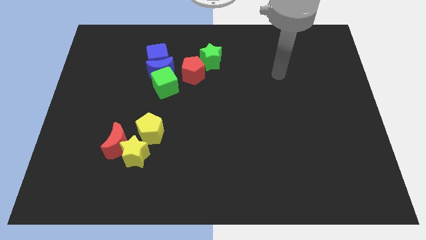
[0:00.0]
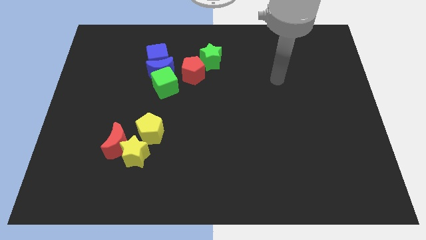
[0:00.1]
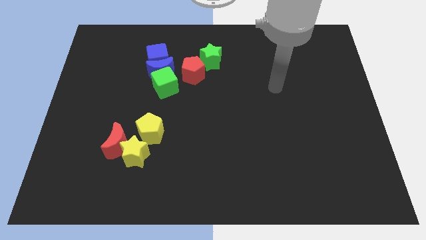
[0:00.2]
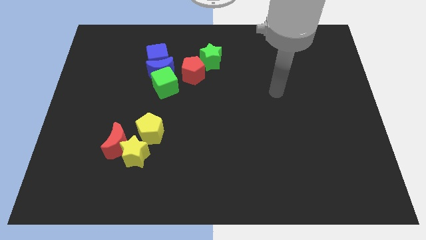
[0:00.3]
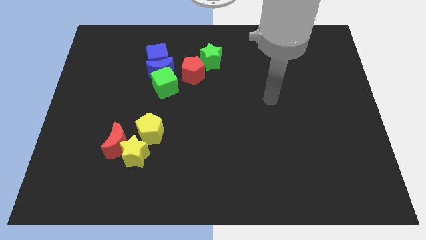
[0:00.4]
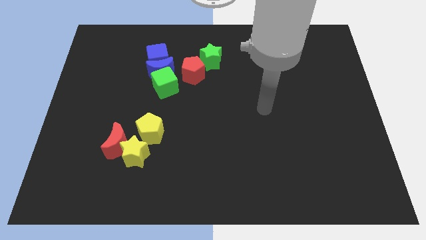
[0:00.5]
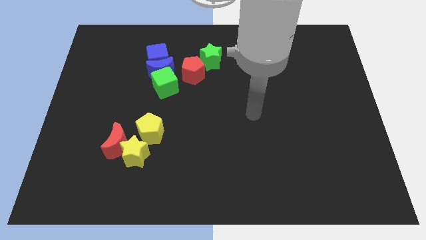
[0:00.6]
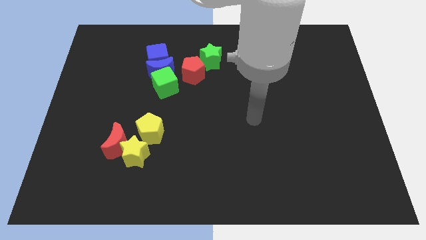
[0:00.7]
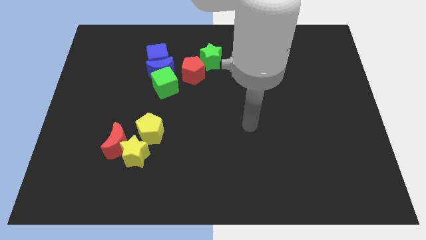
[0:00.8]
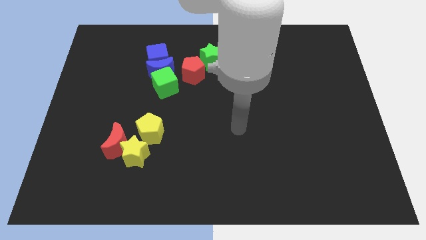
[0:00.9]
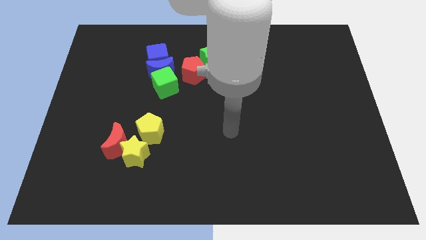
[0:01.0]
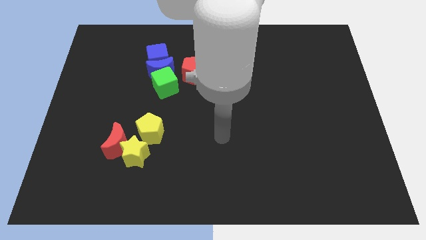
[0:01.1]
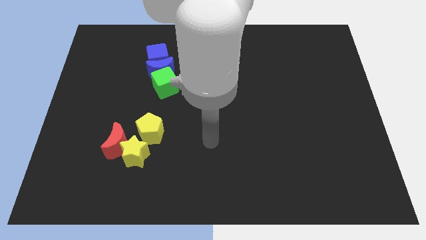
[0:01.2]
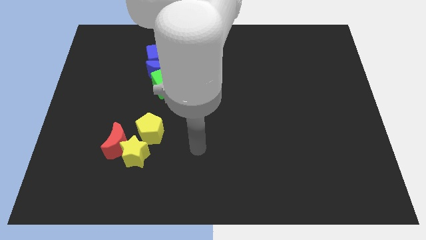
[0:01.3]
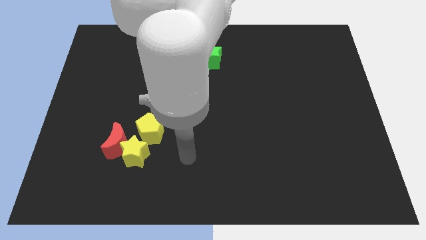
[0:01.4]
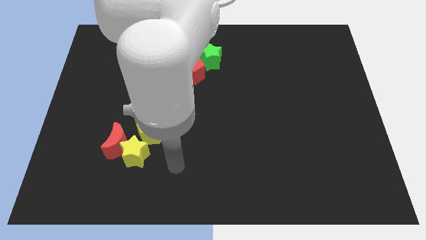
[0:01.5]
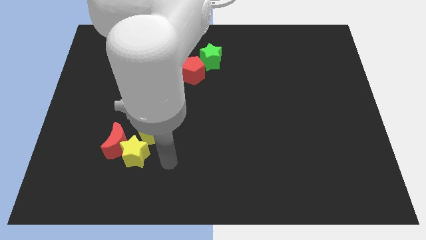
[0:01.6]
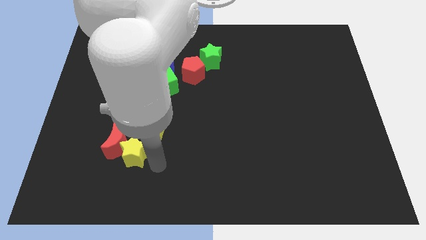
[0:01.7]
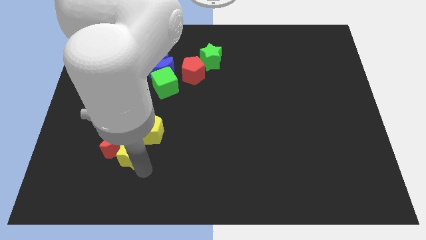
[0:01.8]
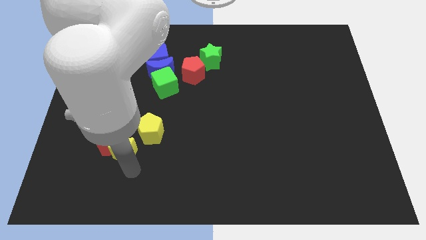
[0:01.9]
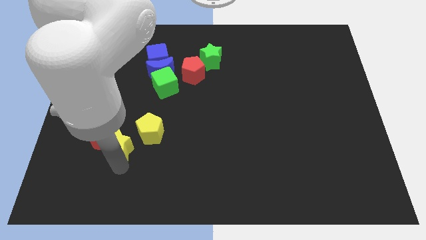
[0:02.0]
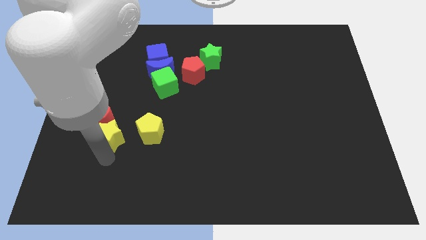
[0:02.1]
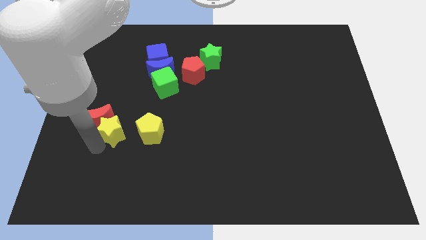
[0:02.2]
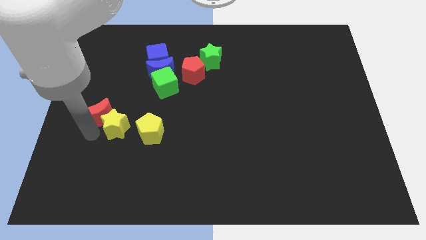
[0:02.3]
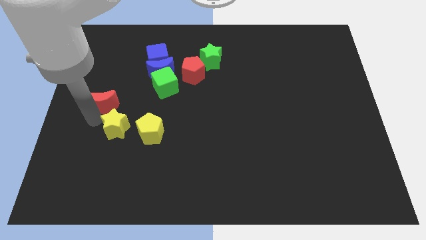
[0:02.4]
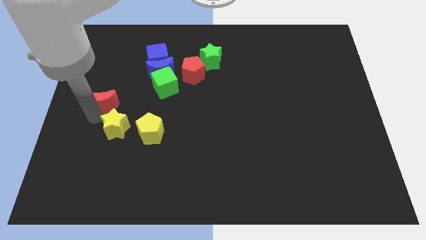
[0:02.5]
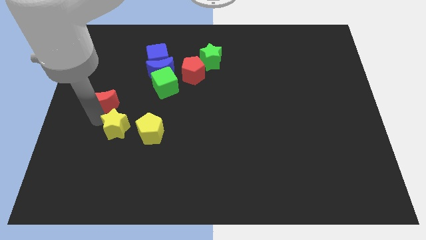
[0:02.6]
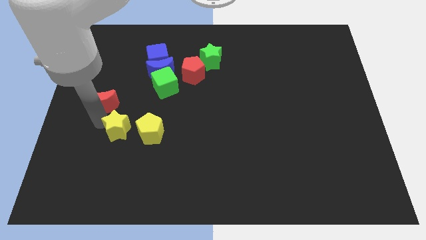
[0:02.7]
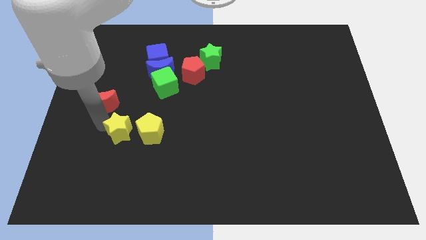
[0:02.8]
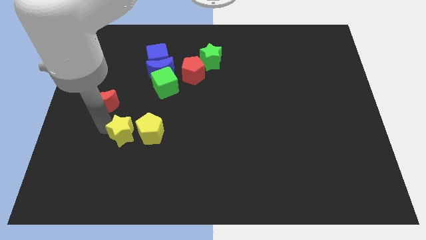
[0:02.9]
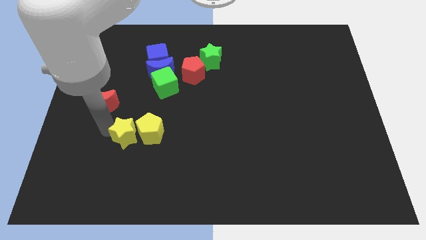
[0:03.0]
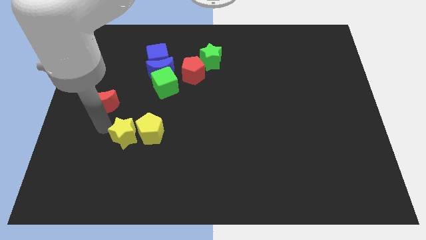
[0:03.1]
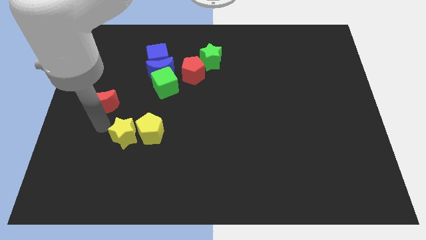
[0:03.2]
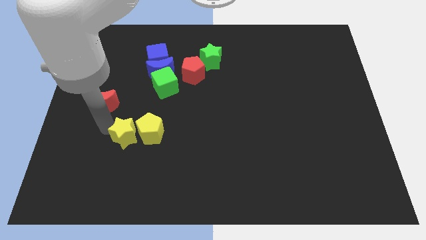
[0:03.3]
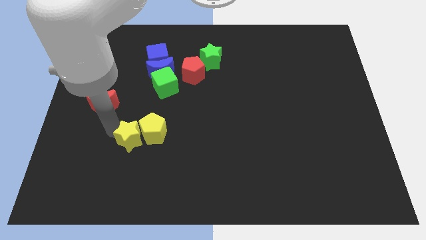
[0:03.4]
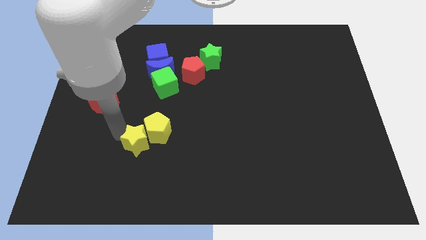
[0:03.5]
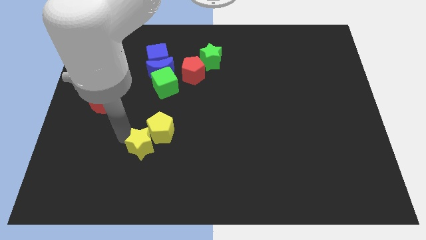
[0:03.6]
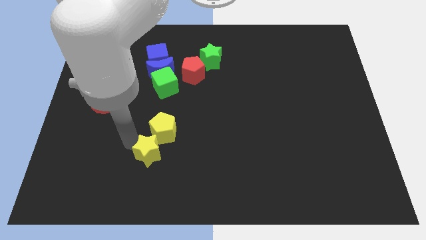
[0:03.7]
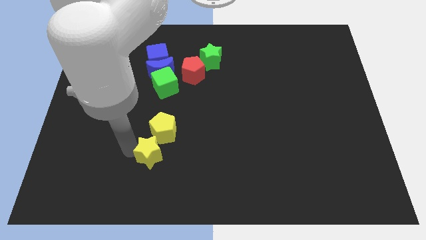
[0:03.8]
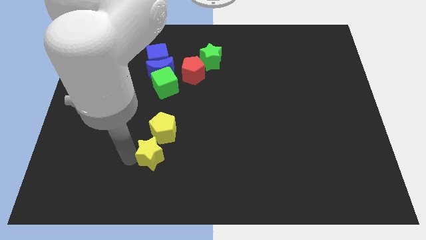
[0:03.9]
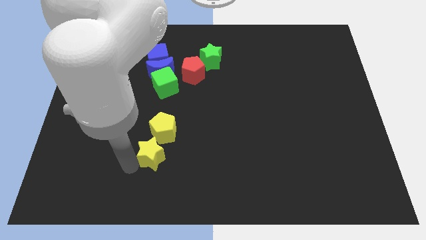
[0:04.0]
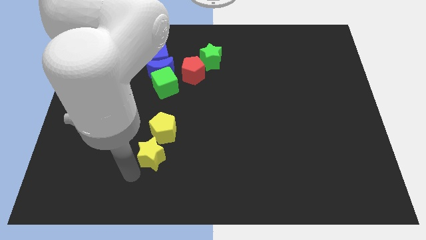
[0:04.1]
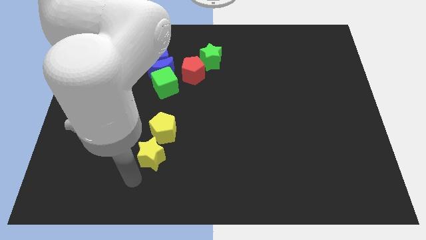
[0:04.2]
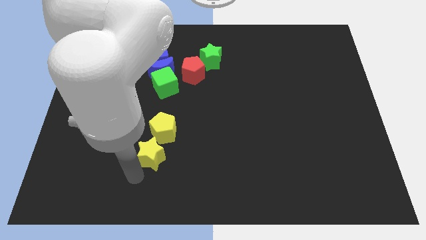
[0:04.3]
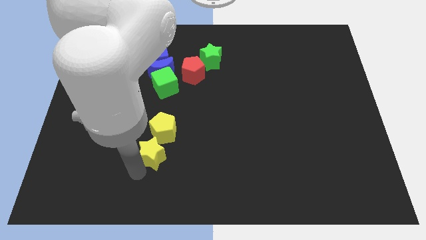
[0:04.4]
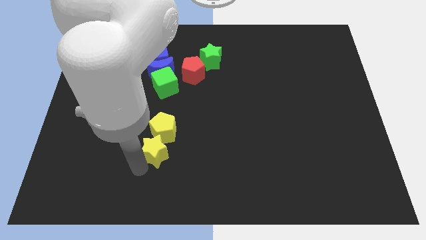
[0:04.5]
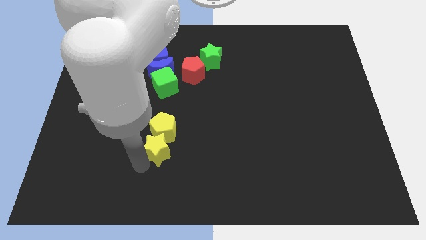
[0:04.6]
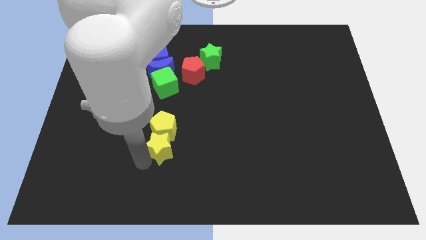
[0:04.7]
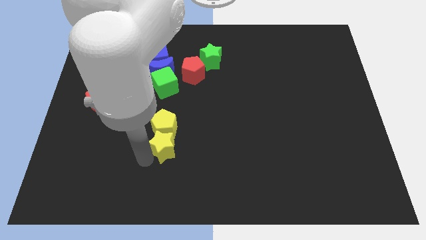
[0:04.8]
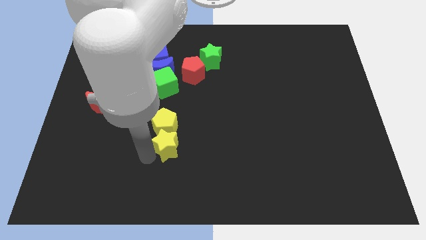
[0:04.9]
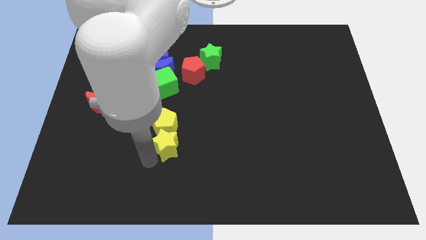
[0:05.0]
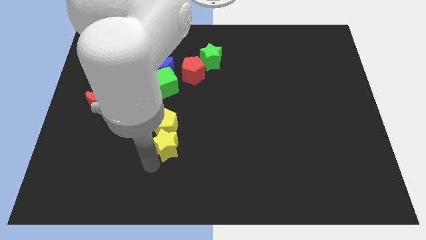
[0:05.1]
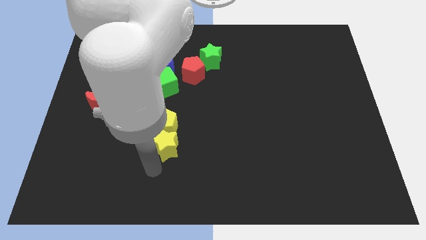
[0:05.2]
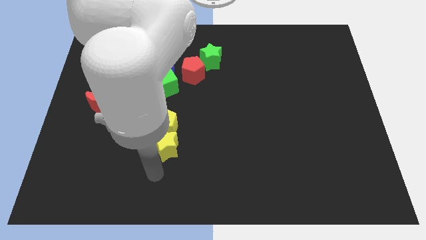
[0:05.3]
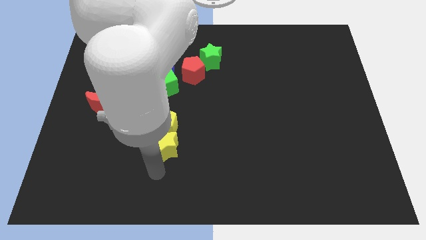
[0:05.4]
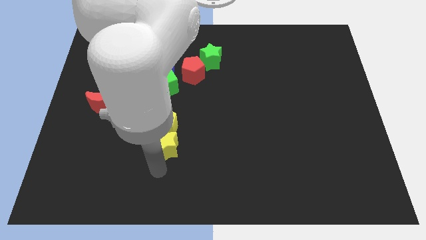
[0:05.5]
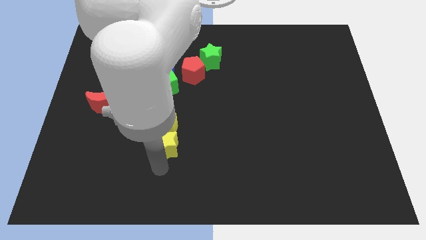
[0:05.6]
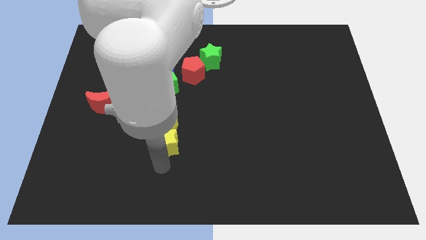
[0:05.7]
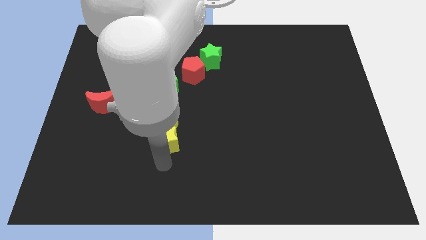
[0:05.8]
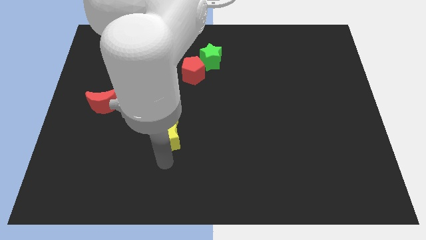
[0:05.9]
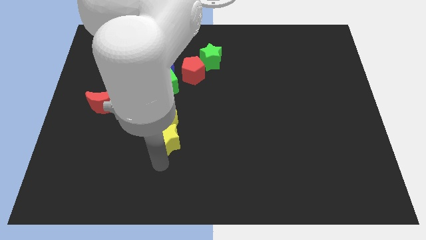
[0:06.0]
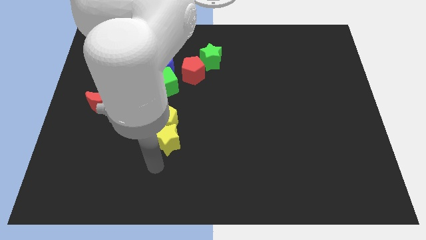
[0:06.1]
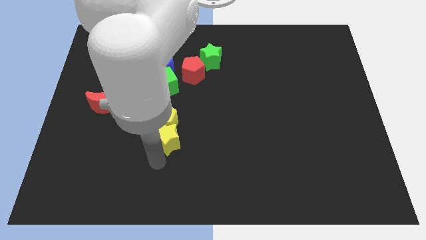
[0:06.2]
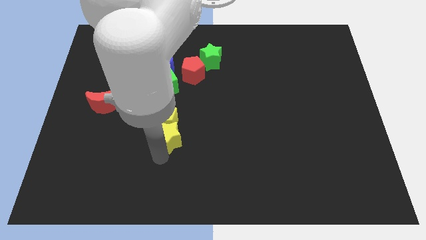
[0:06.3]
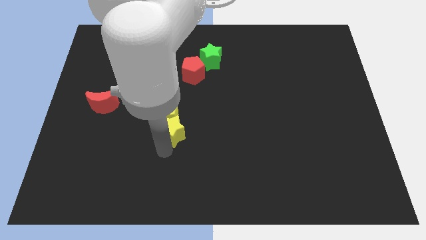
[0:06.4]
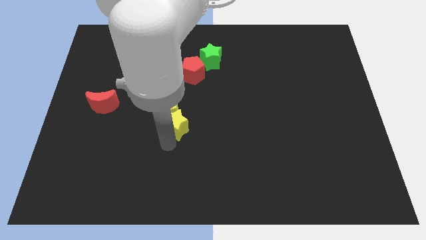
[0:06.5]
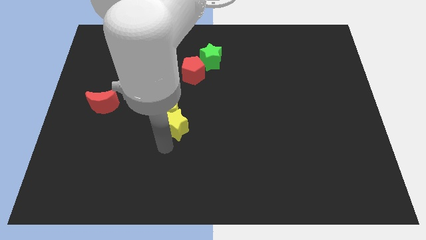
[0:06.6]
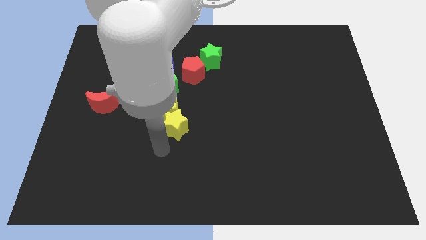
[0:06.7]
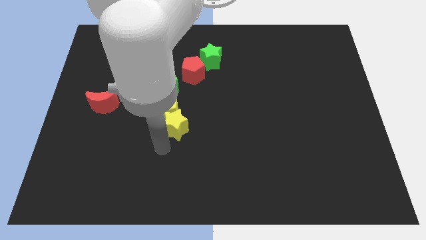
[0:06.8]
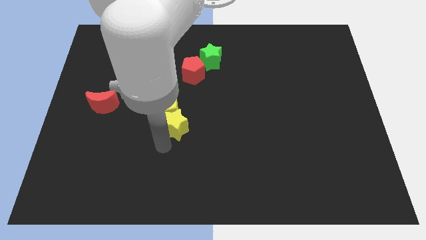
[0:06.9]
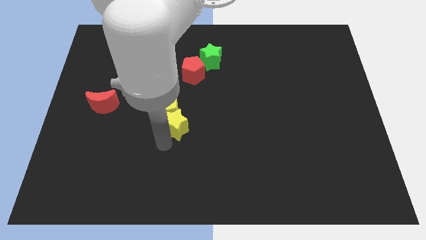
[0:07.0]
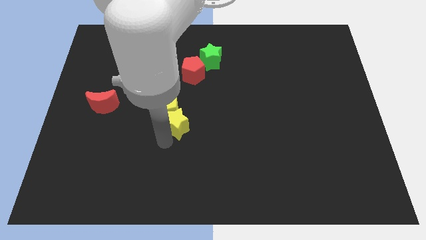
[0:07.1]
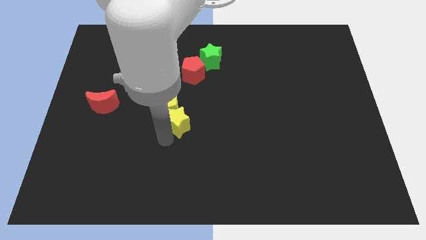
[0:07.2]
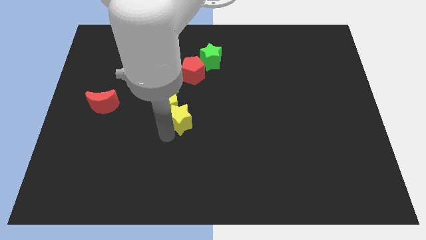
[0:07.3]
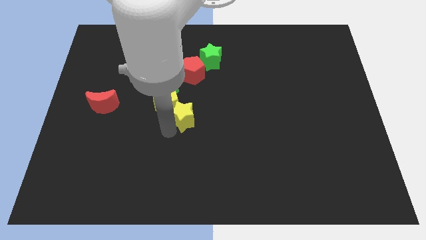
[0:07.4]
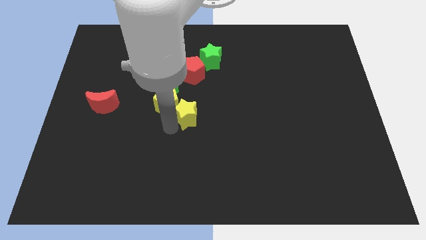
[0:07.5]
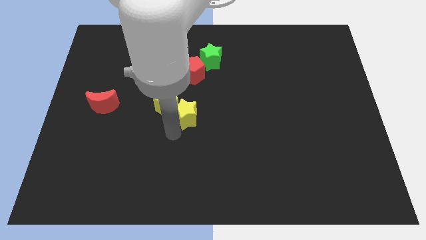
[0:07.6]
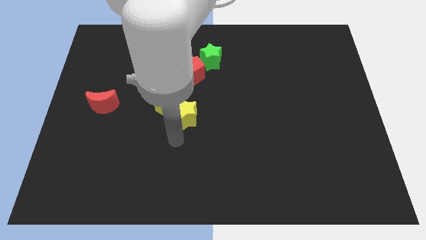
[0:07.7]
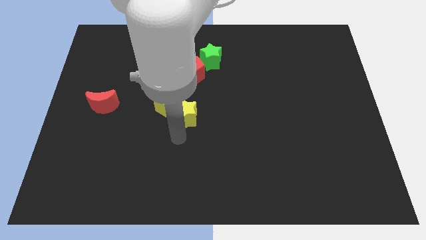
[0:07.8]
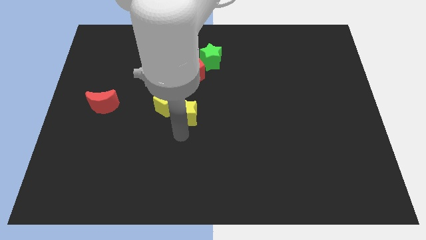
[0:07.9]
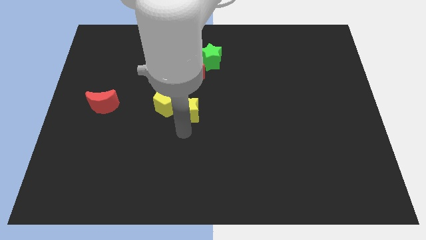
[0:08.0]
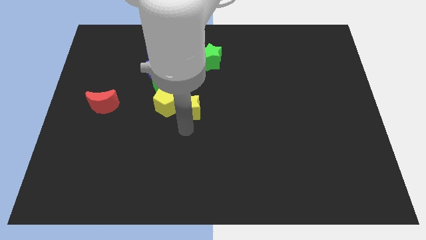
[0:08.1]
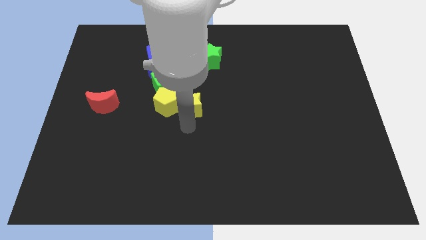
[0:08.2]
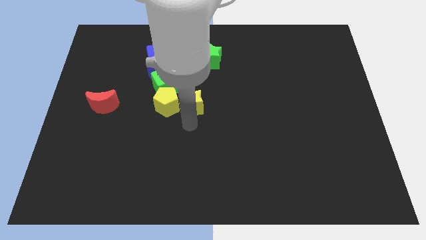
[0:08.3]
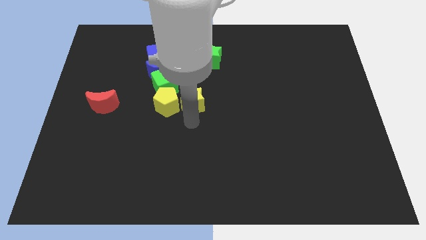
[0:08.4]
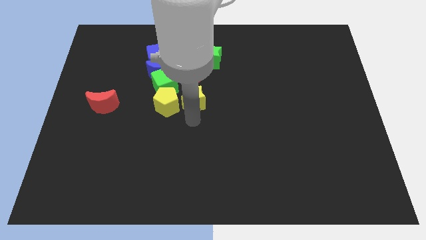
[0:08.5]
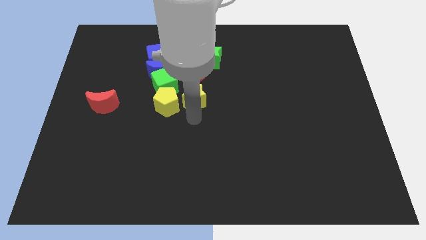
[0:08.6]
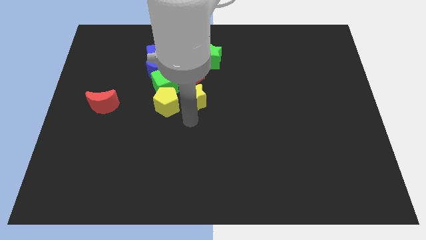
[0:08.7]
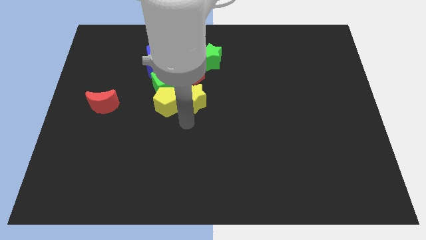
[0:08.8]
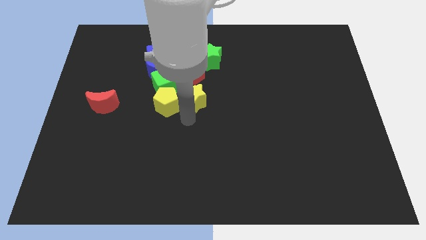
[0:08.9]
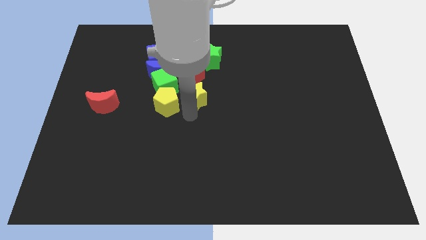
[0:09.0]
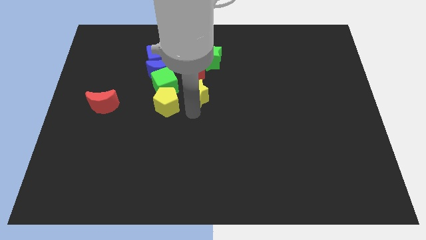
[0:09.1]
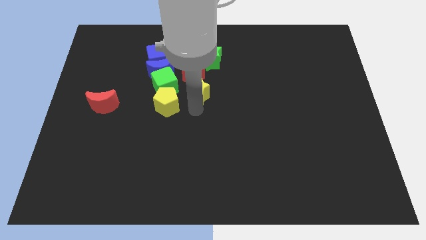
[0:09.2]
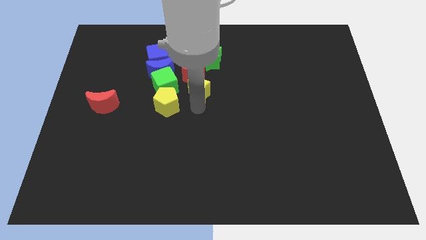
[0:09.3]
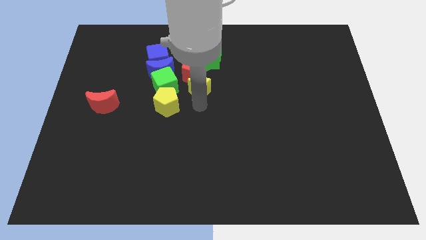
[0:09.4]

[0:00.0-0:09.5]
push the yellow star next to the red pentagon
